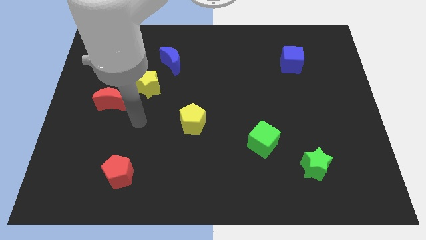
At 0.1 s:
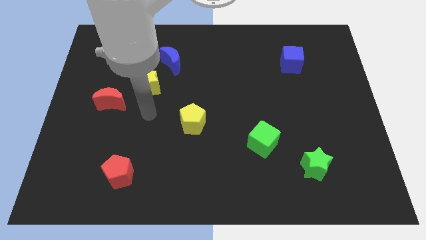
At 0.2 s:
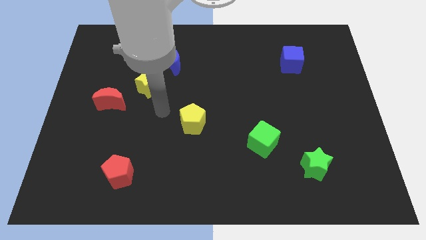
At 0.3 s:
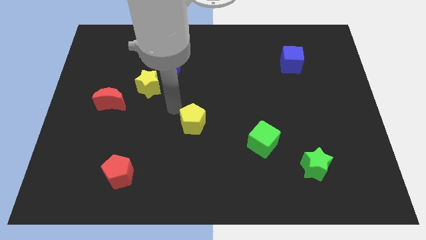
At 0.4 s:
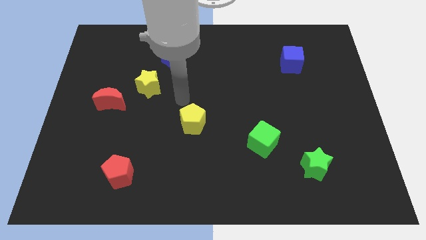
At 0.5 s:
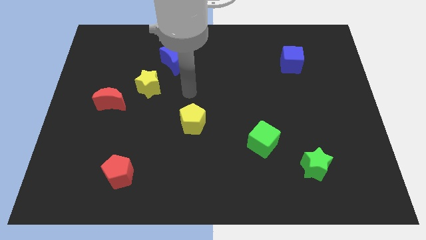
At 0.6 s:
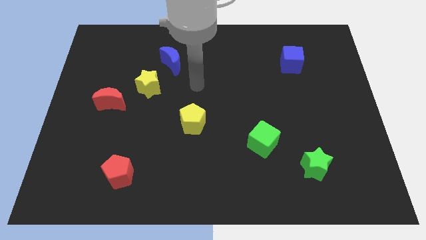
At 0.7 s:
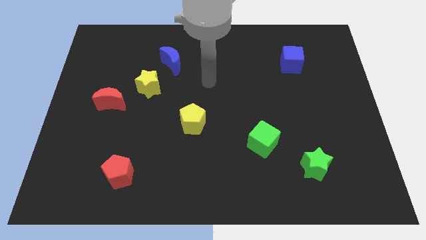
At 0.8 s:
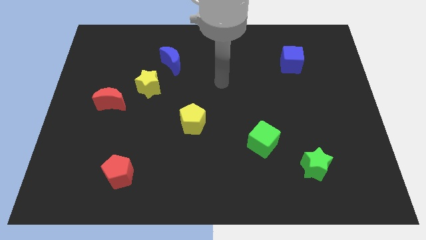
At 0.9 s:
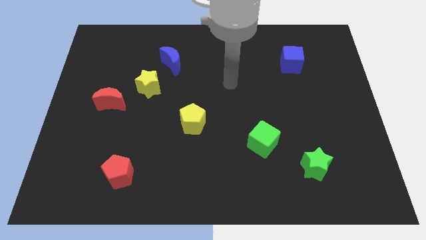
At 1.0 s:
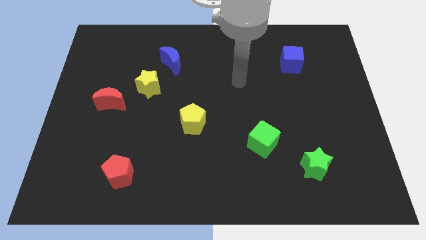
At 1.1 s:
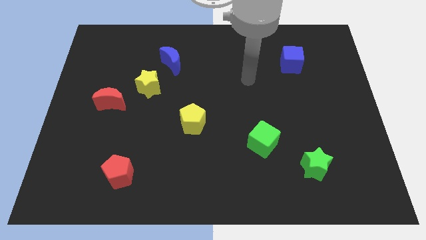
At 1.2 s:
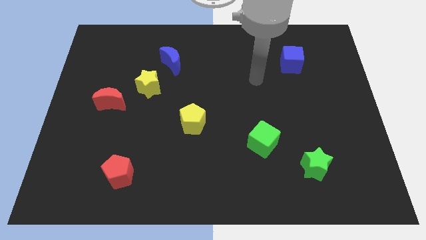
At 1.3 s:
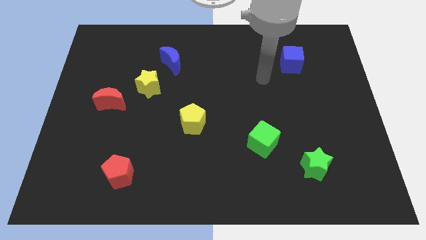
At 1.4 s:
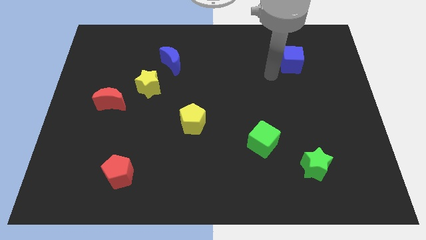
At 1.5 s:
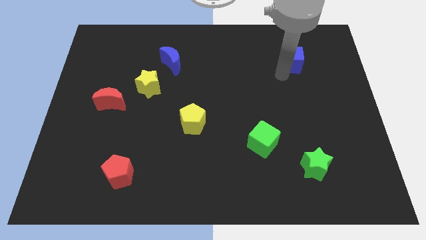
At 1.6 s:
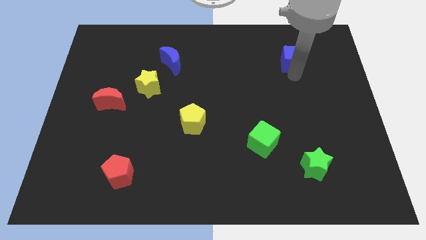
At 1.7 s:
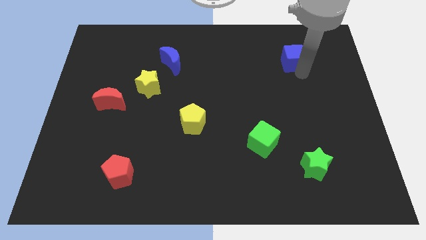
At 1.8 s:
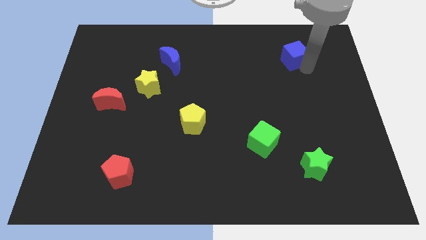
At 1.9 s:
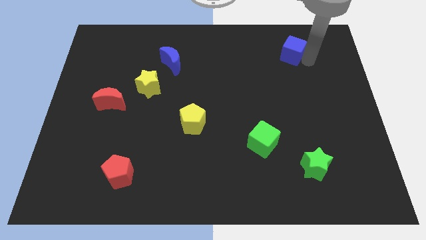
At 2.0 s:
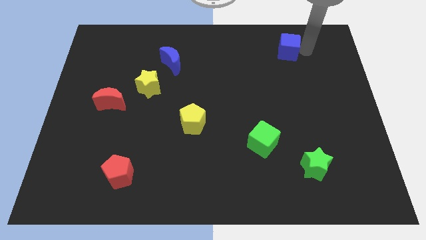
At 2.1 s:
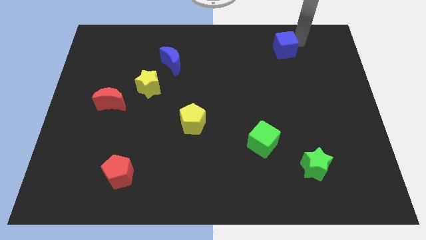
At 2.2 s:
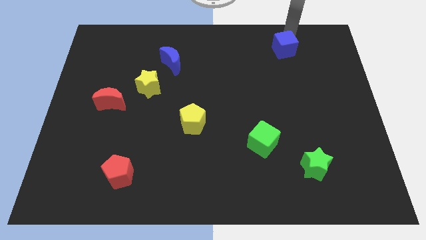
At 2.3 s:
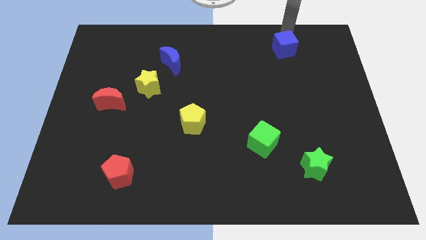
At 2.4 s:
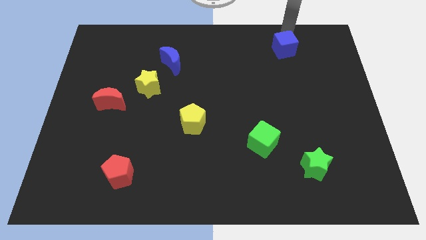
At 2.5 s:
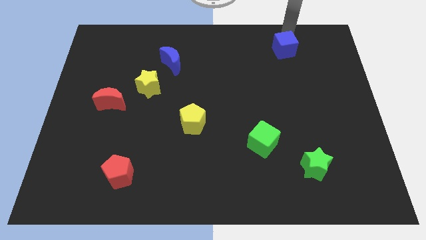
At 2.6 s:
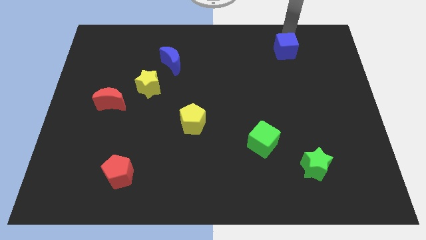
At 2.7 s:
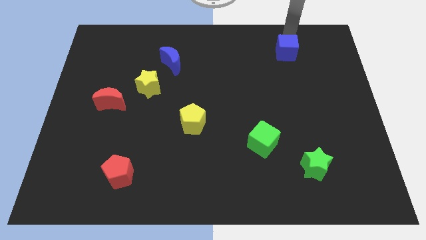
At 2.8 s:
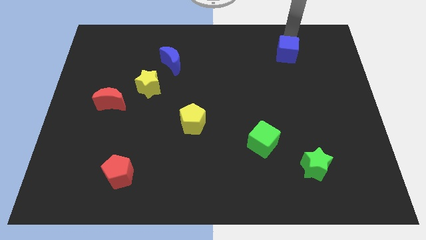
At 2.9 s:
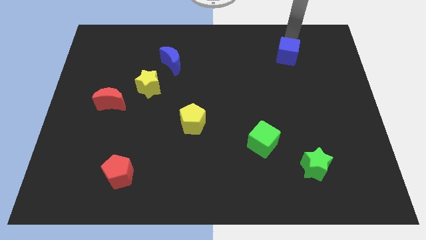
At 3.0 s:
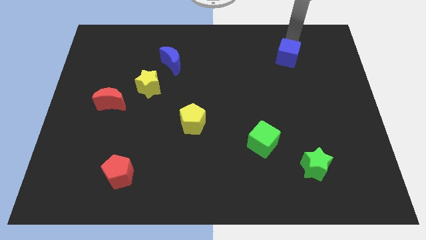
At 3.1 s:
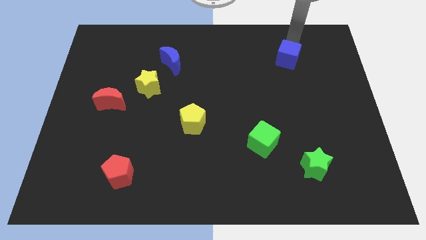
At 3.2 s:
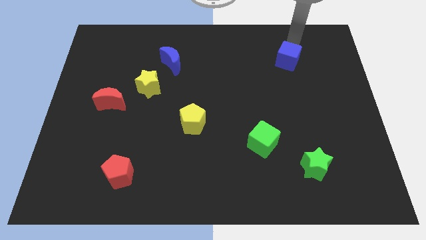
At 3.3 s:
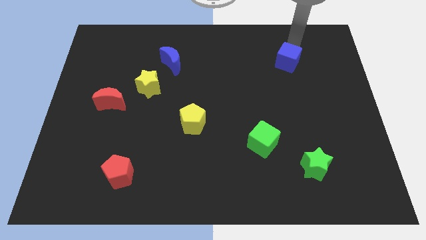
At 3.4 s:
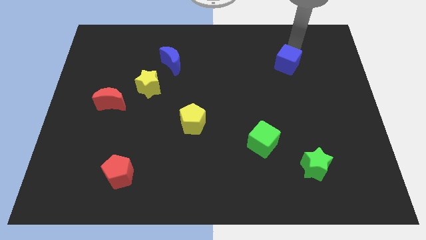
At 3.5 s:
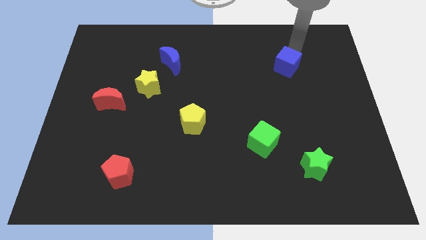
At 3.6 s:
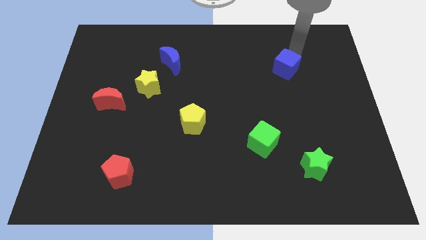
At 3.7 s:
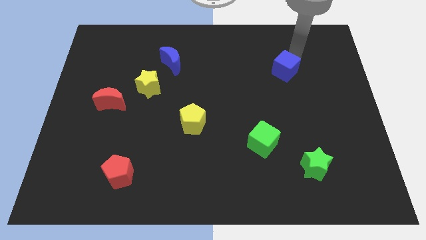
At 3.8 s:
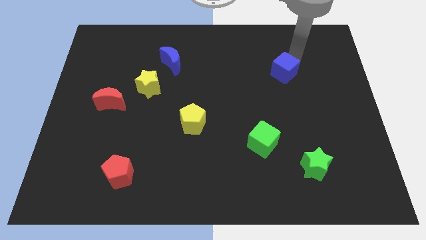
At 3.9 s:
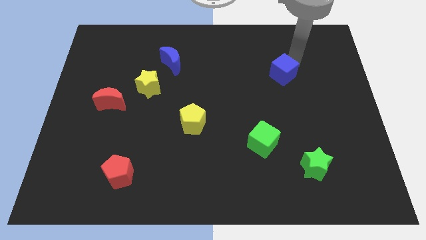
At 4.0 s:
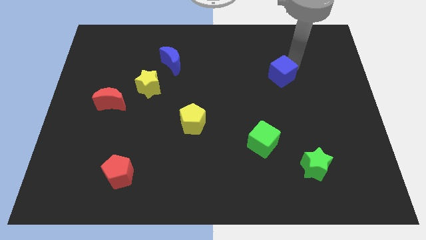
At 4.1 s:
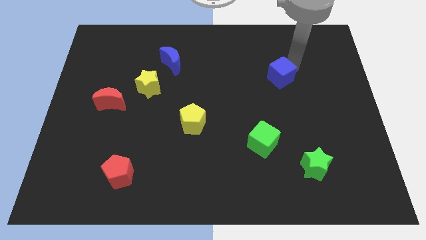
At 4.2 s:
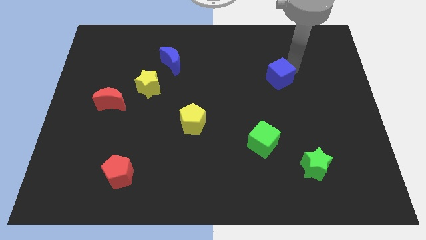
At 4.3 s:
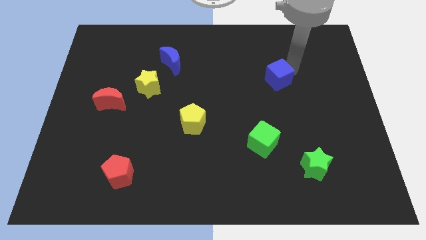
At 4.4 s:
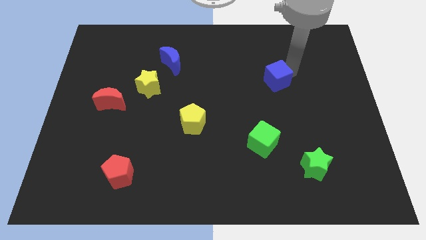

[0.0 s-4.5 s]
move the blue cube downwards and then to the left a little bit

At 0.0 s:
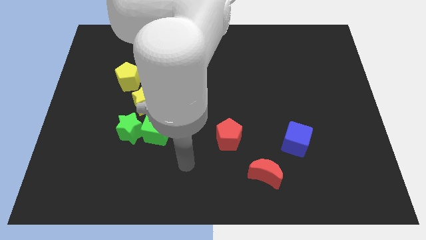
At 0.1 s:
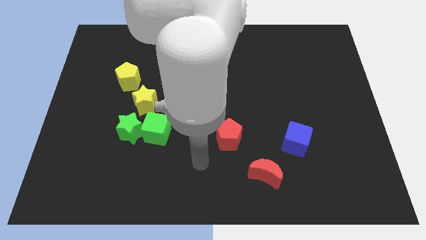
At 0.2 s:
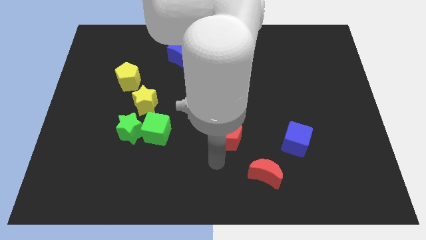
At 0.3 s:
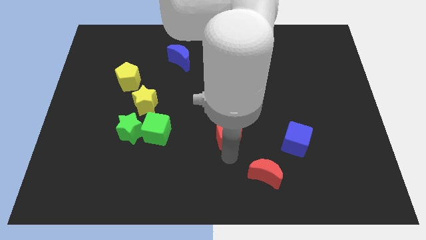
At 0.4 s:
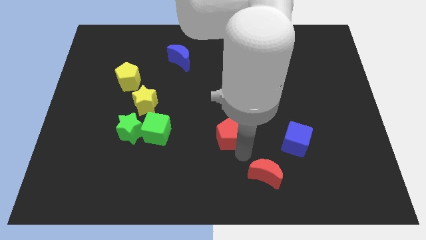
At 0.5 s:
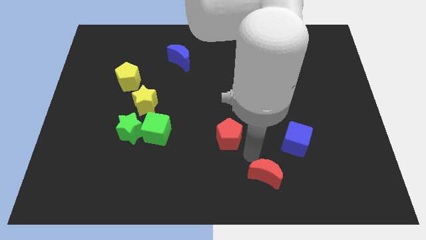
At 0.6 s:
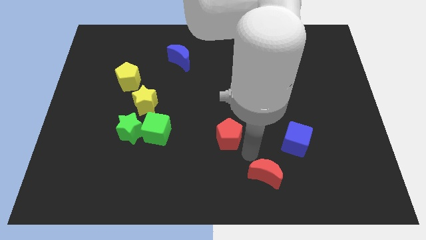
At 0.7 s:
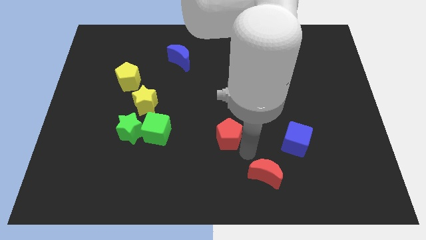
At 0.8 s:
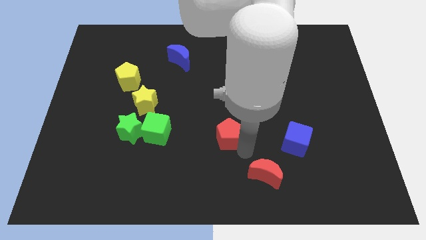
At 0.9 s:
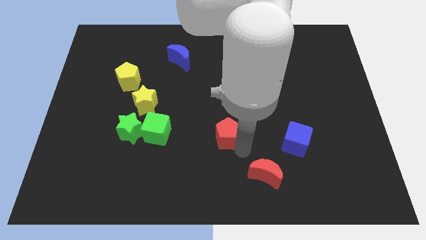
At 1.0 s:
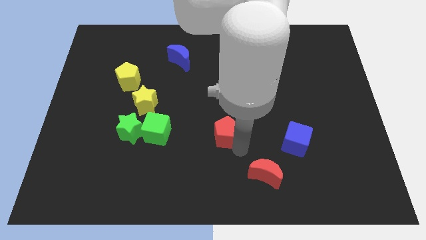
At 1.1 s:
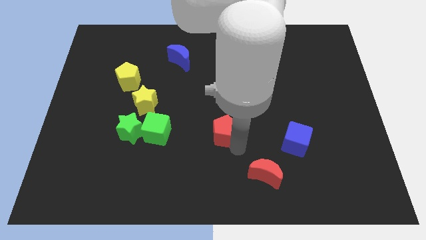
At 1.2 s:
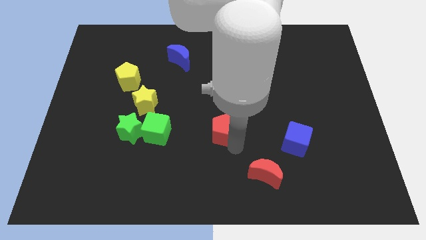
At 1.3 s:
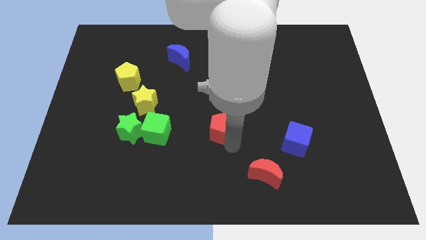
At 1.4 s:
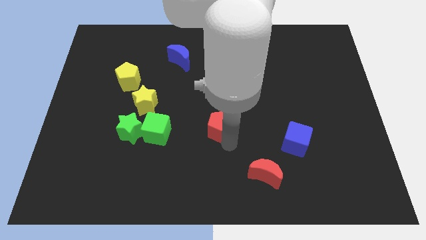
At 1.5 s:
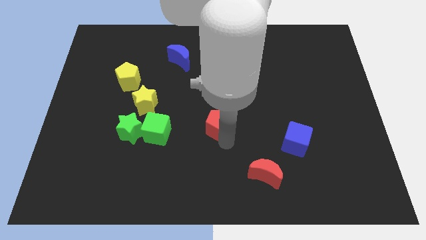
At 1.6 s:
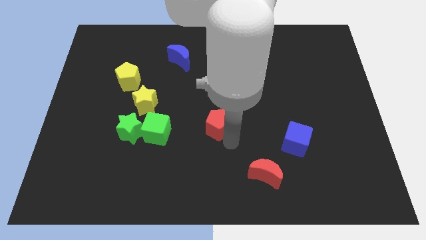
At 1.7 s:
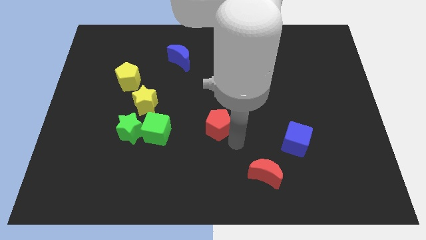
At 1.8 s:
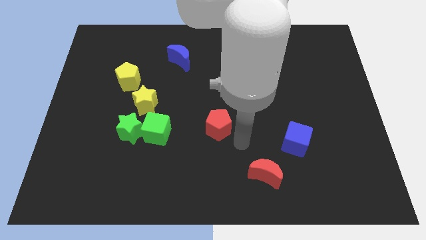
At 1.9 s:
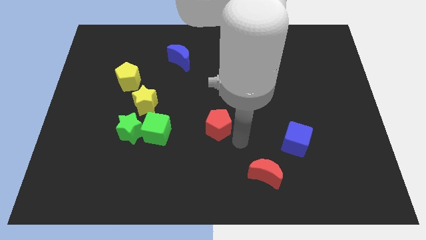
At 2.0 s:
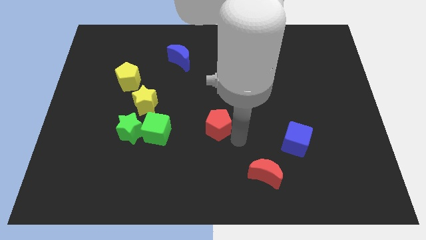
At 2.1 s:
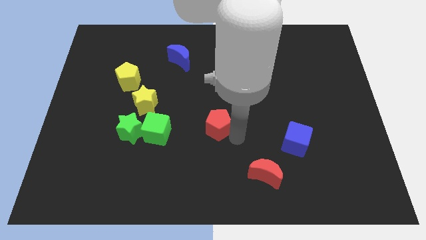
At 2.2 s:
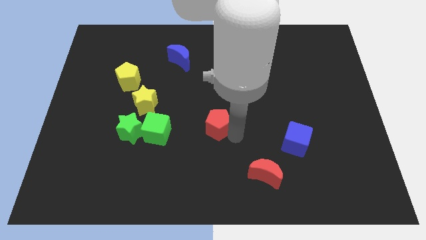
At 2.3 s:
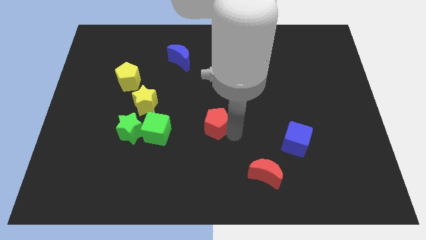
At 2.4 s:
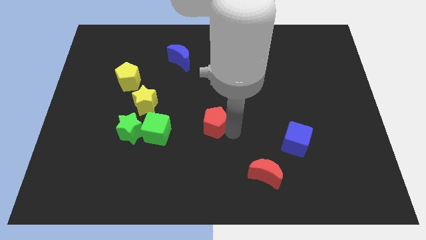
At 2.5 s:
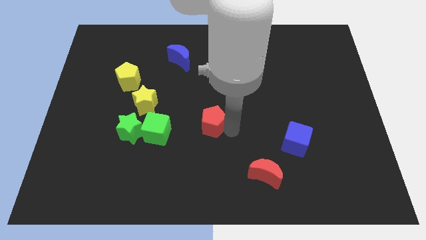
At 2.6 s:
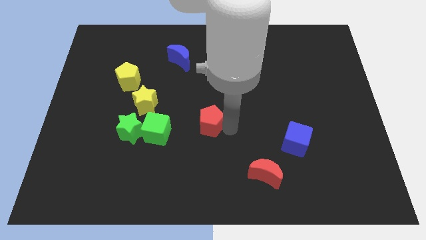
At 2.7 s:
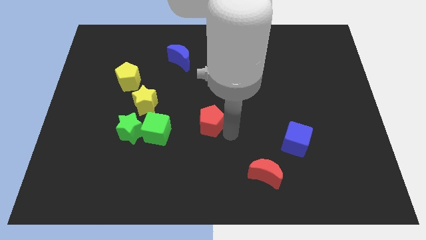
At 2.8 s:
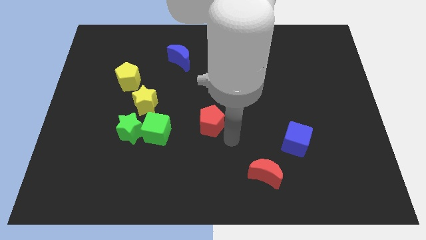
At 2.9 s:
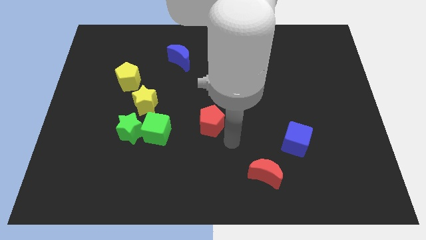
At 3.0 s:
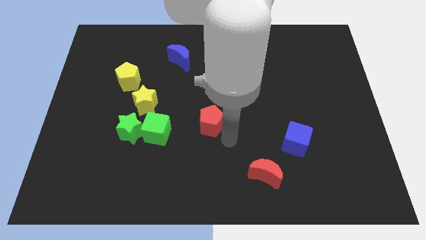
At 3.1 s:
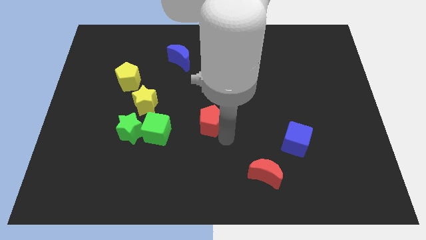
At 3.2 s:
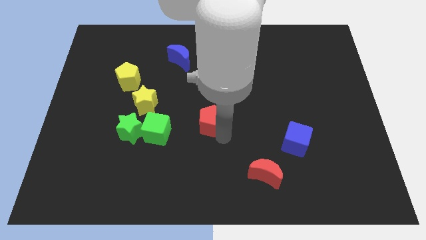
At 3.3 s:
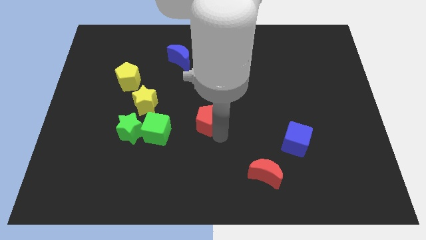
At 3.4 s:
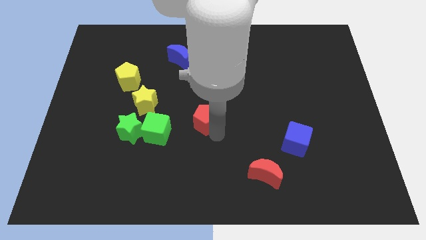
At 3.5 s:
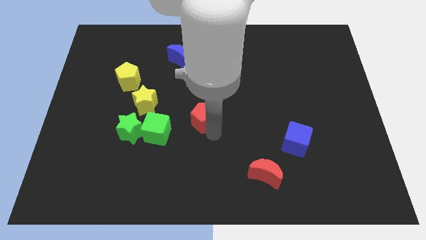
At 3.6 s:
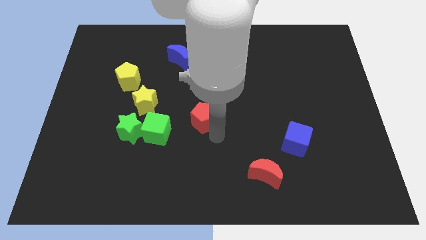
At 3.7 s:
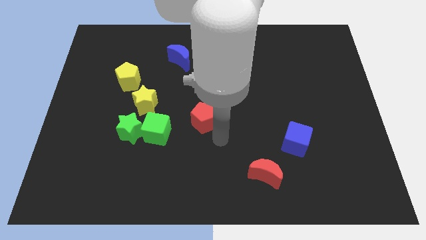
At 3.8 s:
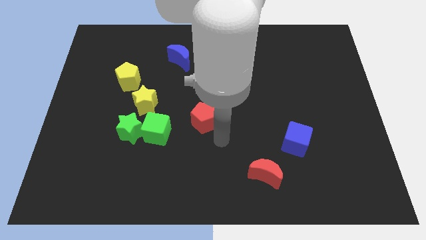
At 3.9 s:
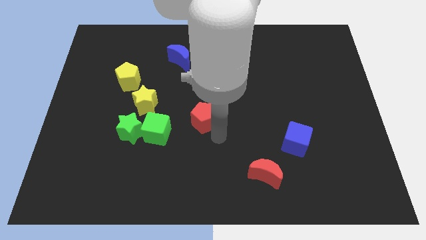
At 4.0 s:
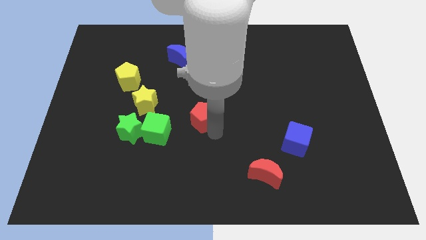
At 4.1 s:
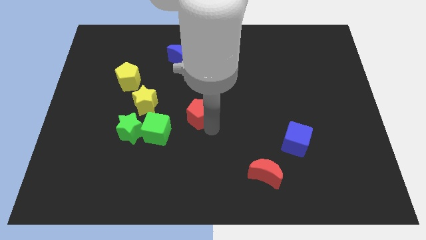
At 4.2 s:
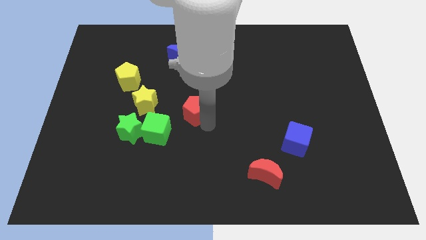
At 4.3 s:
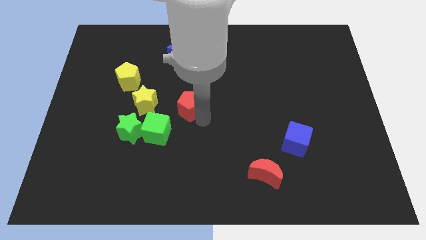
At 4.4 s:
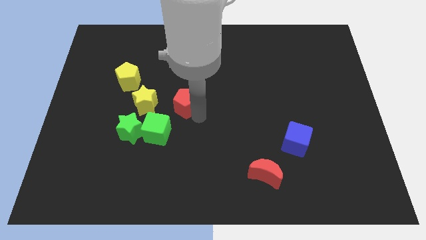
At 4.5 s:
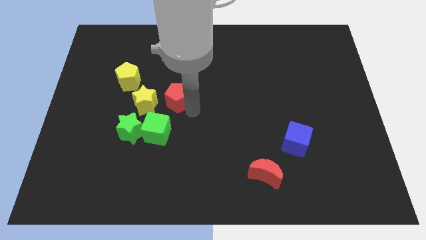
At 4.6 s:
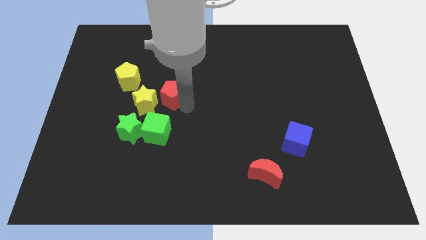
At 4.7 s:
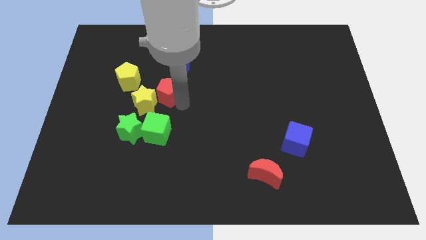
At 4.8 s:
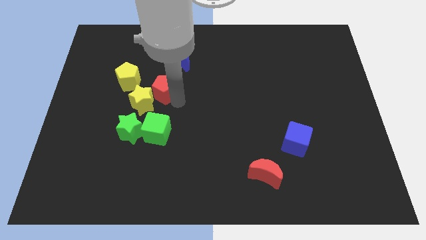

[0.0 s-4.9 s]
slide the red pentagon up and then left
